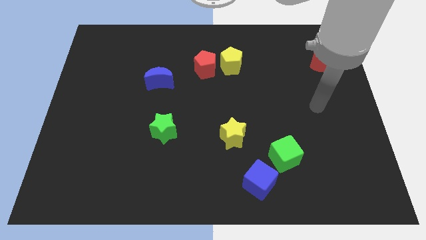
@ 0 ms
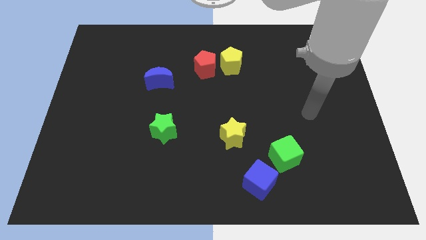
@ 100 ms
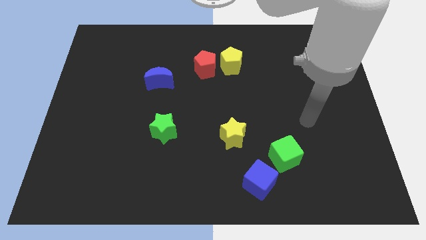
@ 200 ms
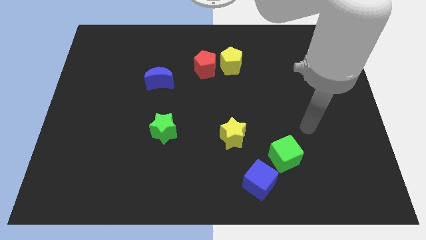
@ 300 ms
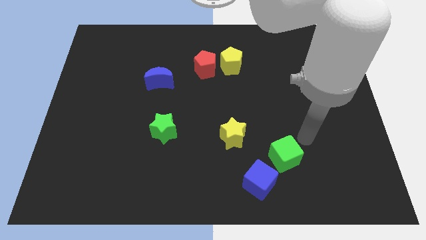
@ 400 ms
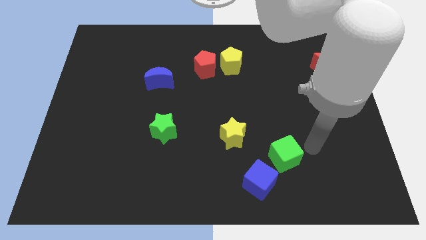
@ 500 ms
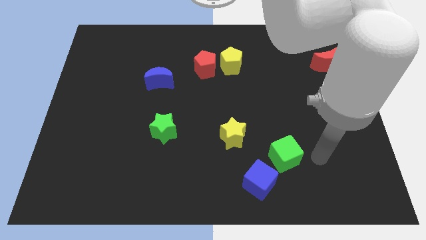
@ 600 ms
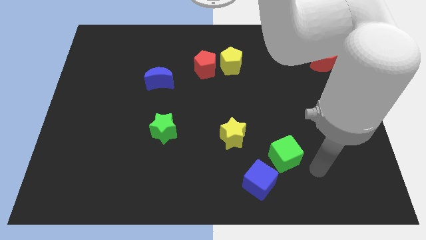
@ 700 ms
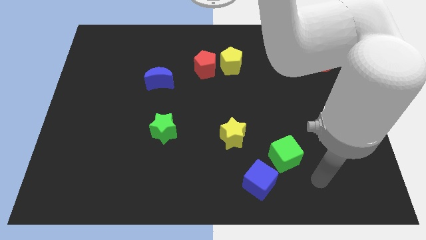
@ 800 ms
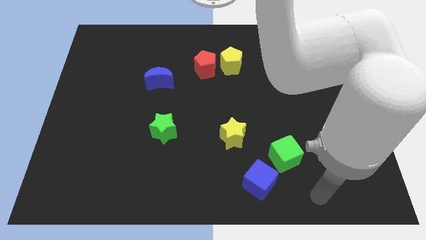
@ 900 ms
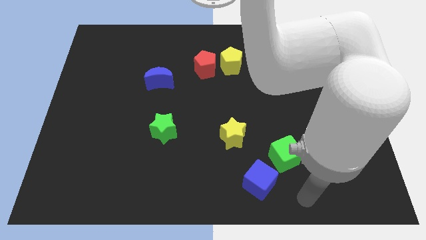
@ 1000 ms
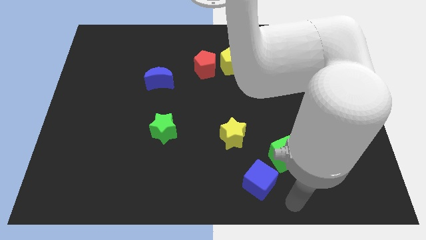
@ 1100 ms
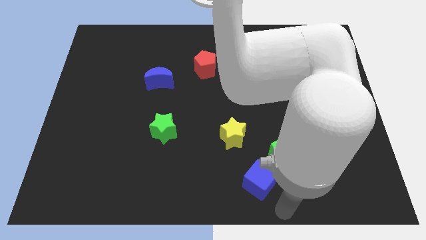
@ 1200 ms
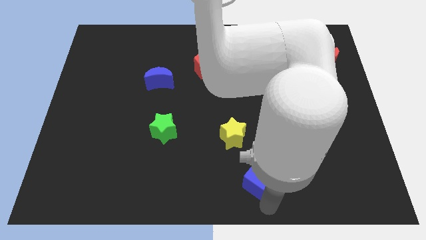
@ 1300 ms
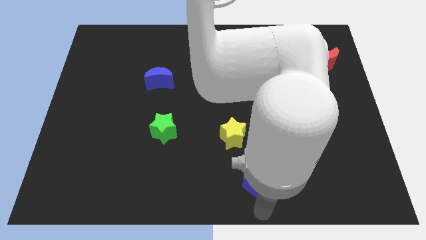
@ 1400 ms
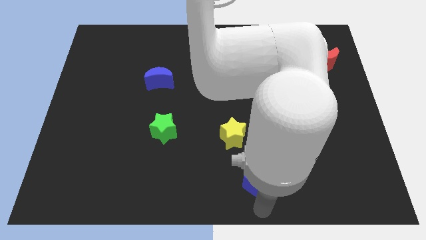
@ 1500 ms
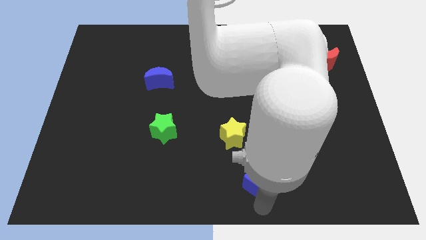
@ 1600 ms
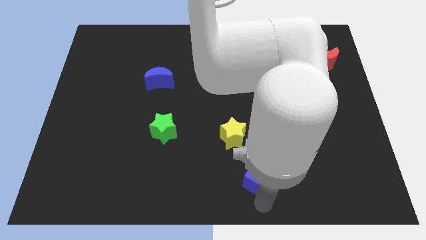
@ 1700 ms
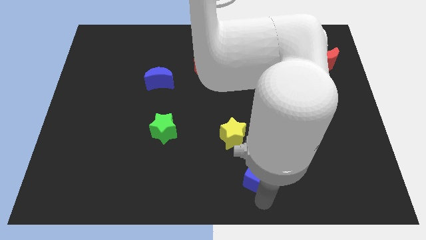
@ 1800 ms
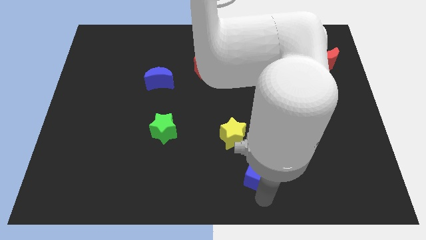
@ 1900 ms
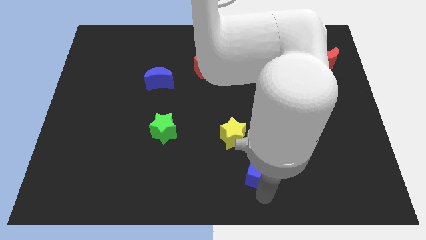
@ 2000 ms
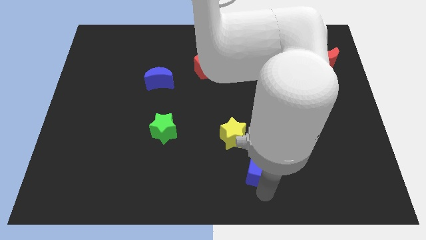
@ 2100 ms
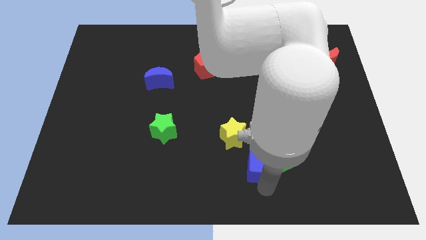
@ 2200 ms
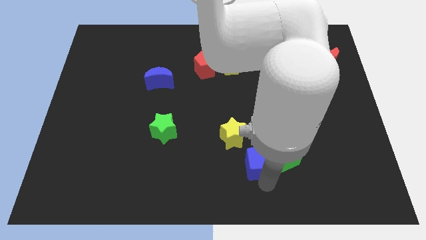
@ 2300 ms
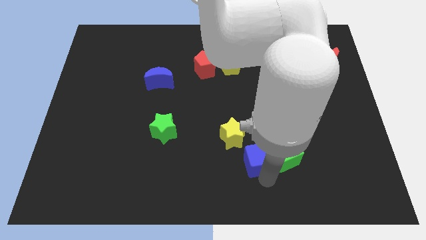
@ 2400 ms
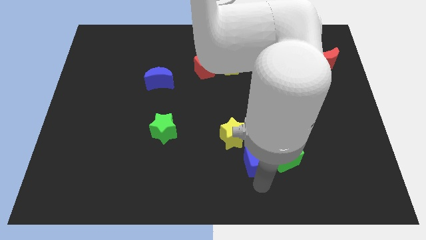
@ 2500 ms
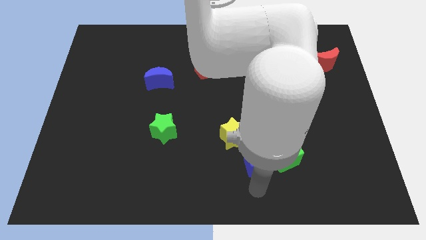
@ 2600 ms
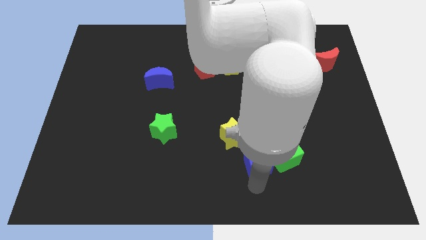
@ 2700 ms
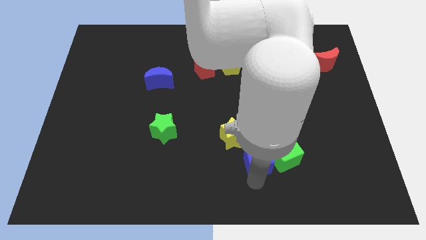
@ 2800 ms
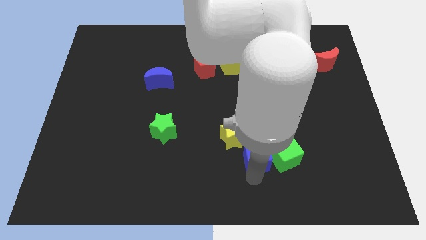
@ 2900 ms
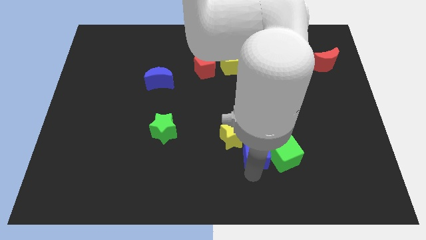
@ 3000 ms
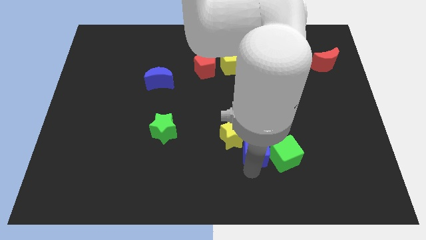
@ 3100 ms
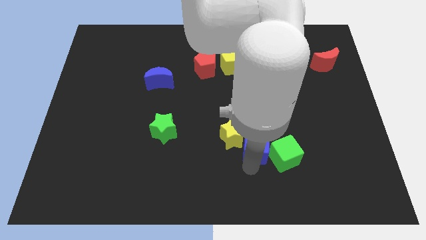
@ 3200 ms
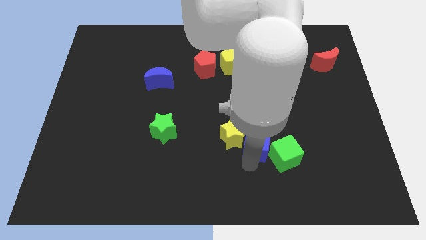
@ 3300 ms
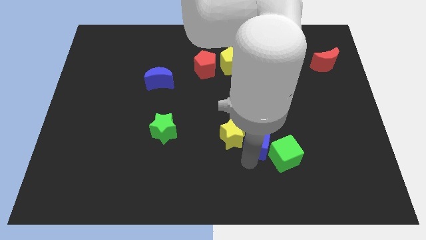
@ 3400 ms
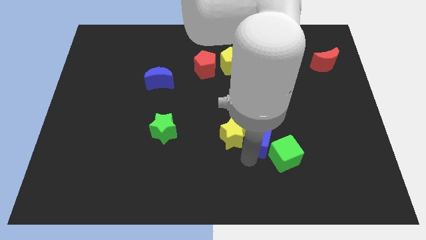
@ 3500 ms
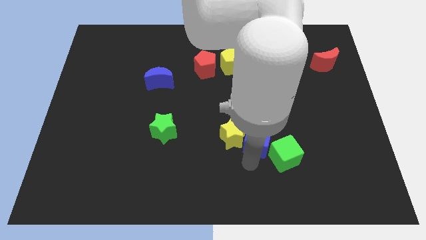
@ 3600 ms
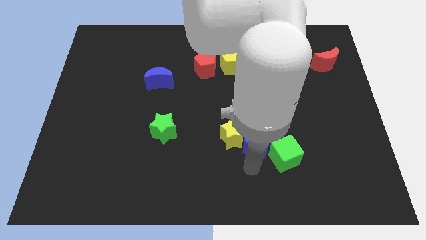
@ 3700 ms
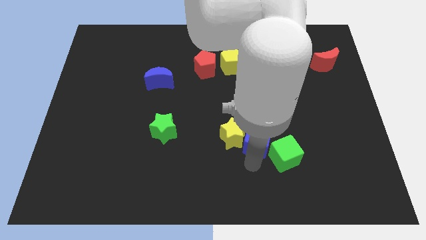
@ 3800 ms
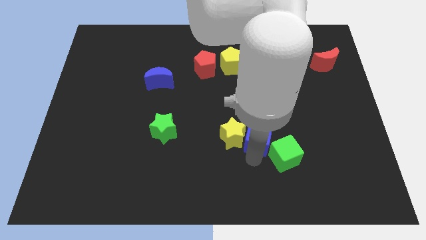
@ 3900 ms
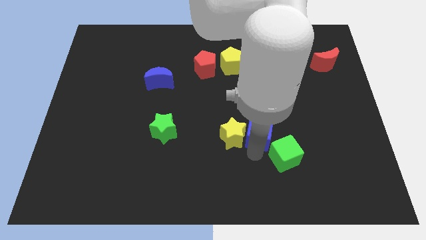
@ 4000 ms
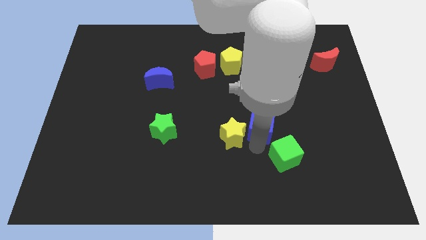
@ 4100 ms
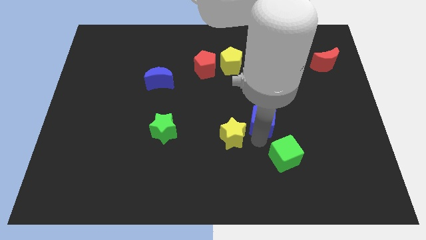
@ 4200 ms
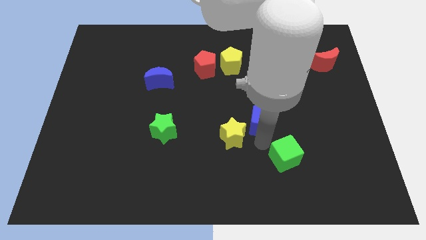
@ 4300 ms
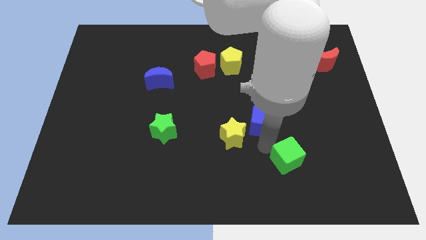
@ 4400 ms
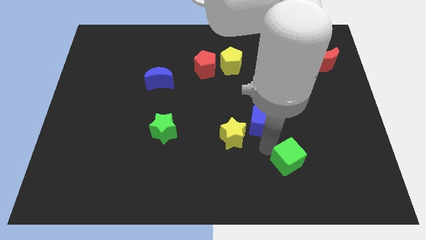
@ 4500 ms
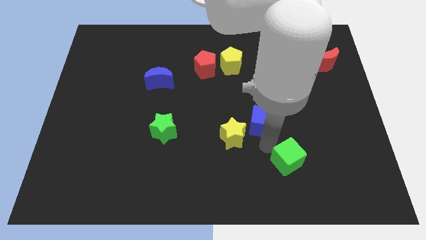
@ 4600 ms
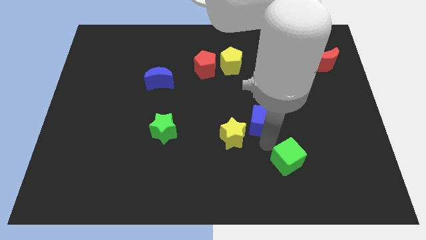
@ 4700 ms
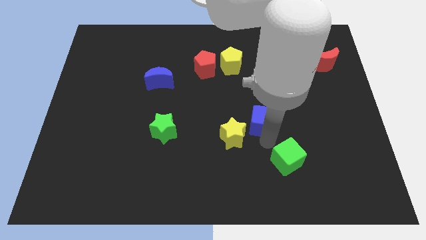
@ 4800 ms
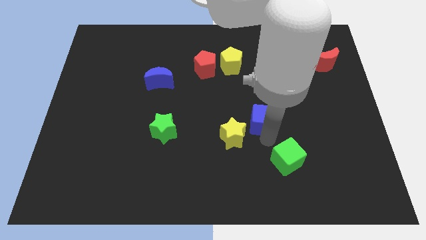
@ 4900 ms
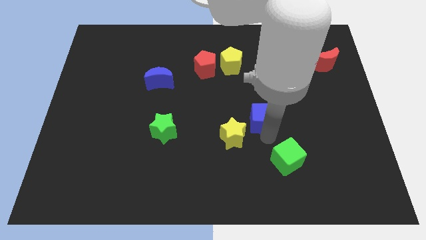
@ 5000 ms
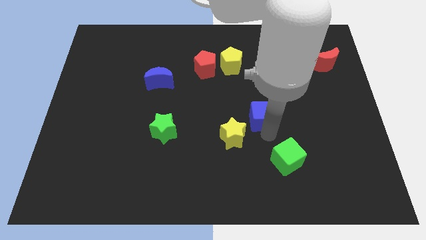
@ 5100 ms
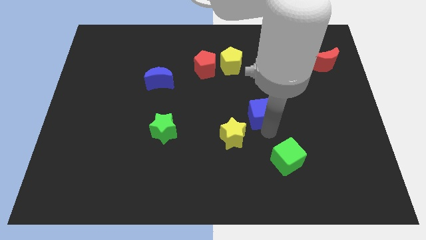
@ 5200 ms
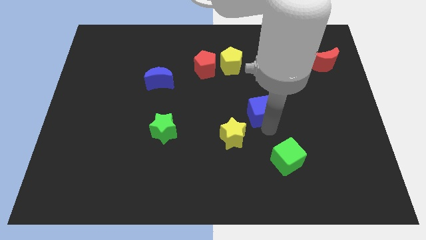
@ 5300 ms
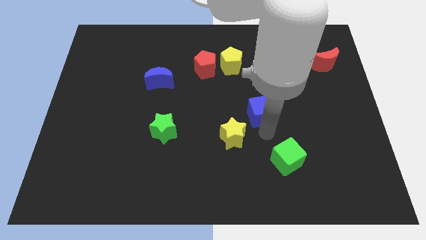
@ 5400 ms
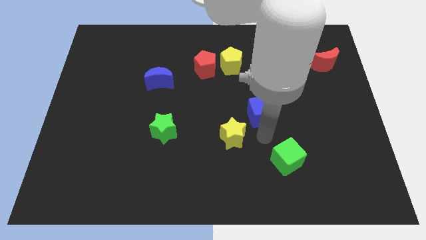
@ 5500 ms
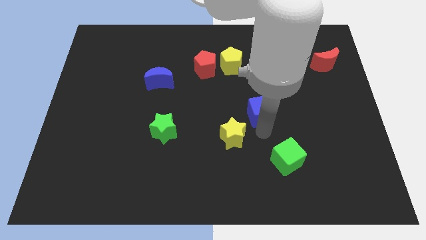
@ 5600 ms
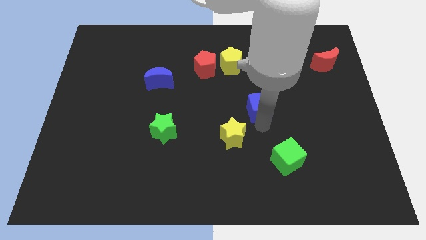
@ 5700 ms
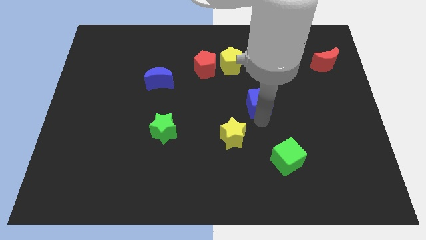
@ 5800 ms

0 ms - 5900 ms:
slide the blue cube upwards

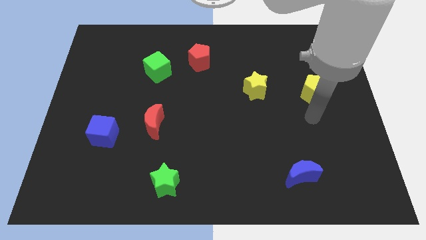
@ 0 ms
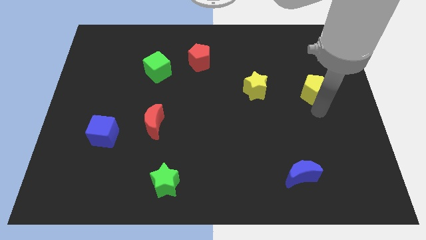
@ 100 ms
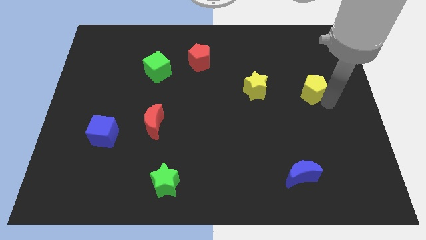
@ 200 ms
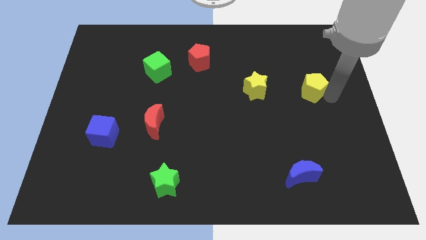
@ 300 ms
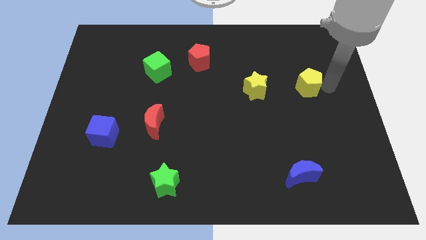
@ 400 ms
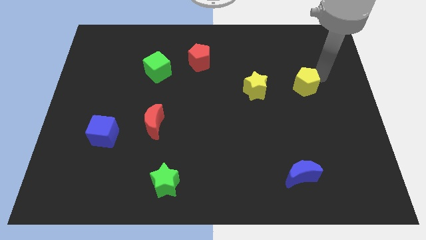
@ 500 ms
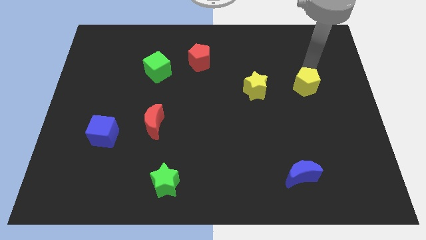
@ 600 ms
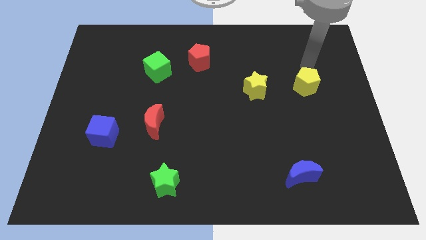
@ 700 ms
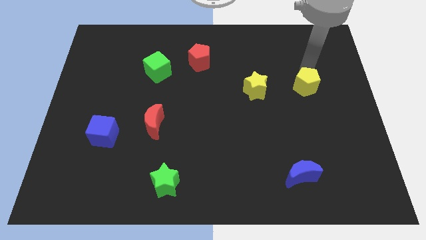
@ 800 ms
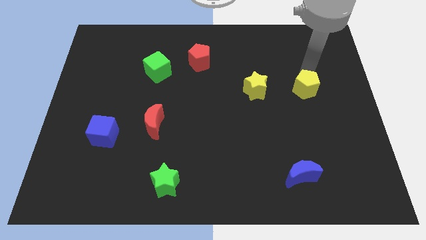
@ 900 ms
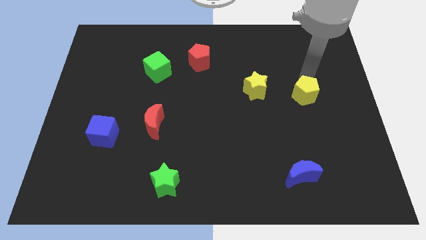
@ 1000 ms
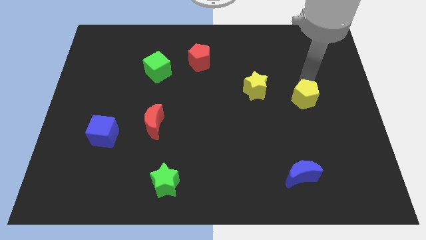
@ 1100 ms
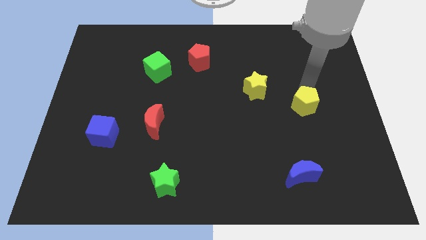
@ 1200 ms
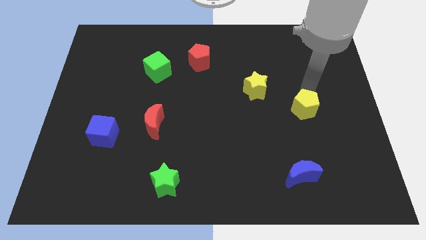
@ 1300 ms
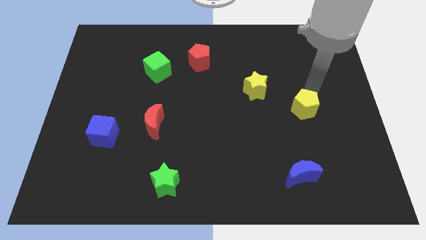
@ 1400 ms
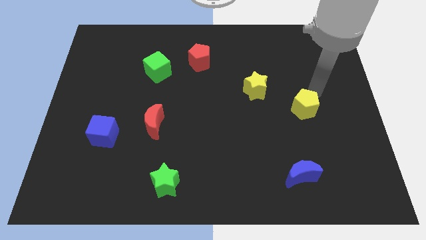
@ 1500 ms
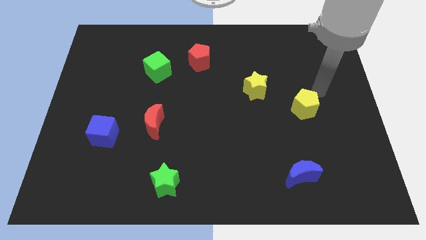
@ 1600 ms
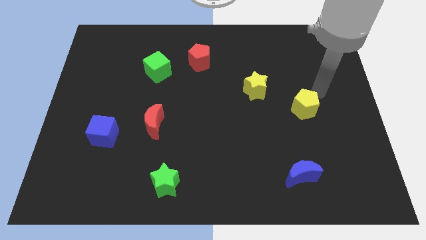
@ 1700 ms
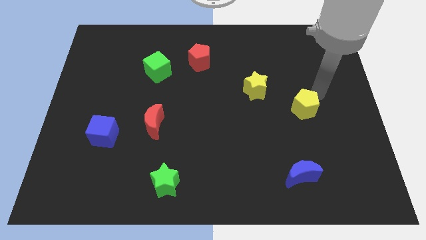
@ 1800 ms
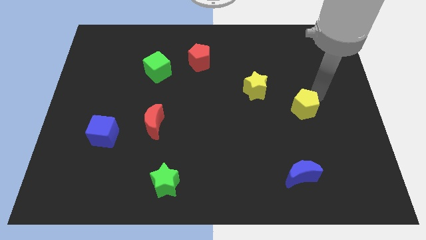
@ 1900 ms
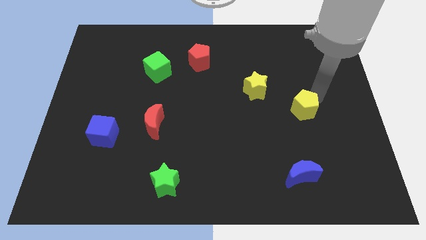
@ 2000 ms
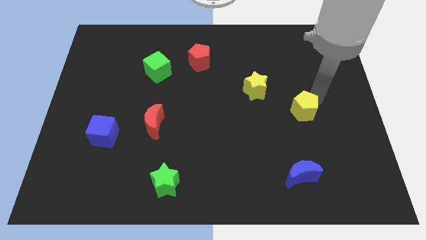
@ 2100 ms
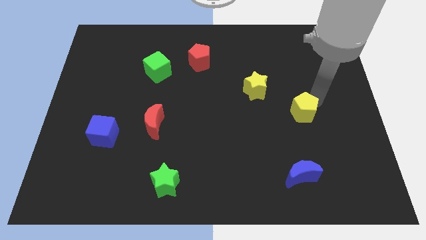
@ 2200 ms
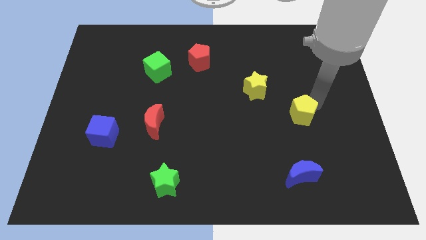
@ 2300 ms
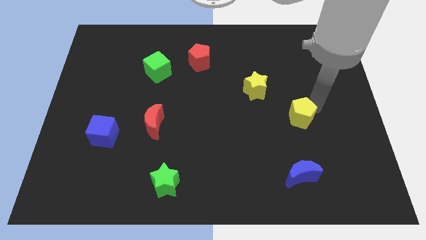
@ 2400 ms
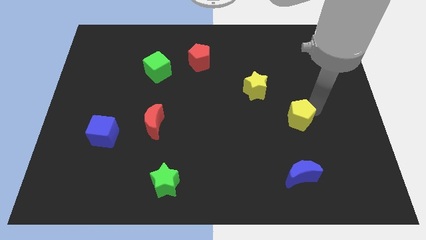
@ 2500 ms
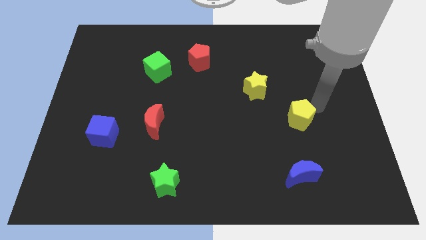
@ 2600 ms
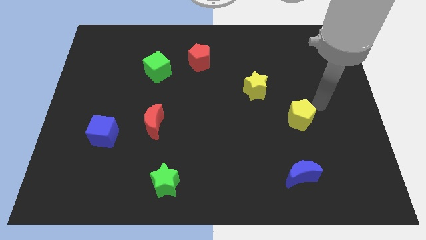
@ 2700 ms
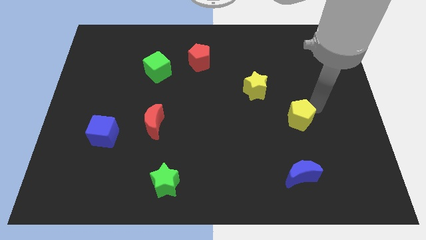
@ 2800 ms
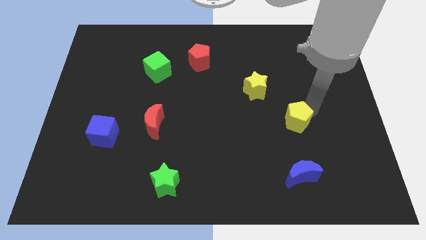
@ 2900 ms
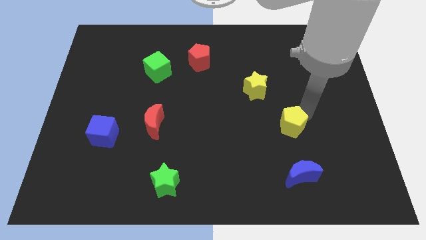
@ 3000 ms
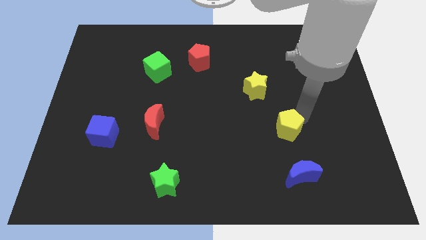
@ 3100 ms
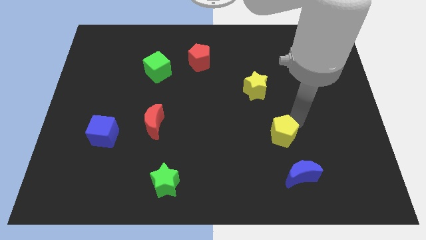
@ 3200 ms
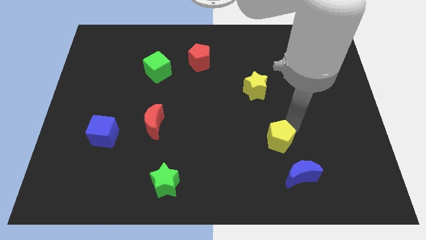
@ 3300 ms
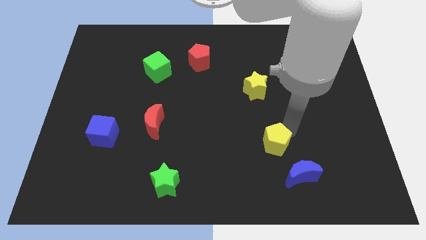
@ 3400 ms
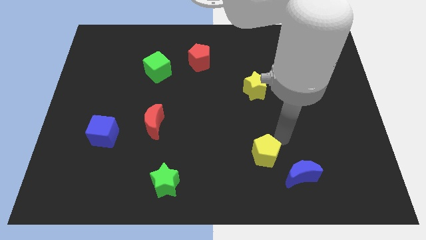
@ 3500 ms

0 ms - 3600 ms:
move the yellow pentagon down and then left
